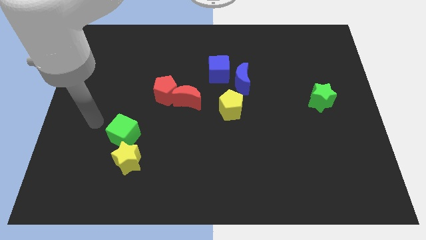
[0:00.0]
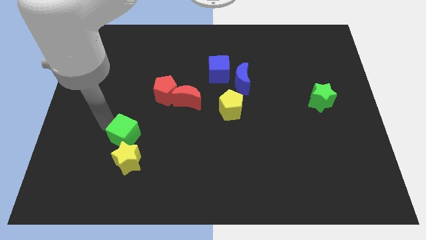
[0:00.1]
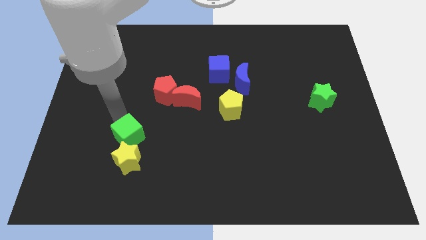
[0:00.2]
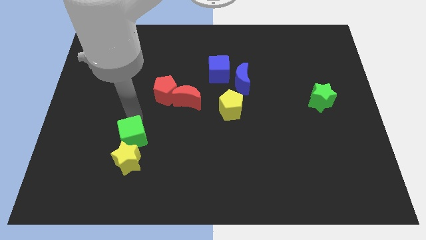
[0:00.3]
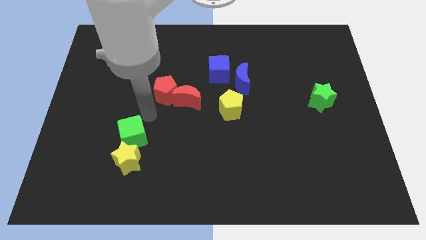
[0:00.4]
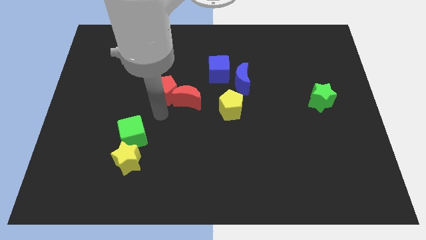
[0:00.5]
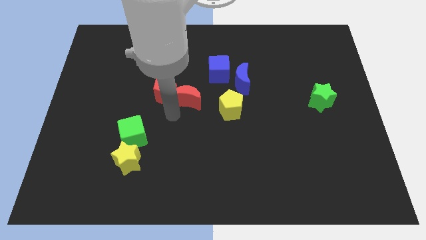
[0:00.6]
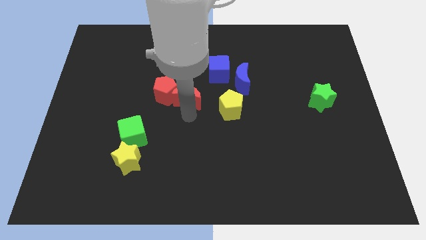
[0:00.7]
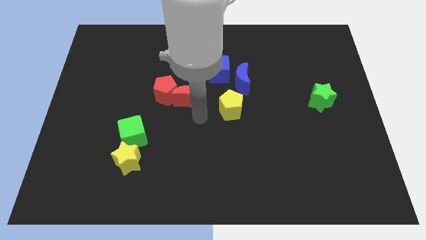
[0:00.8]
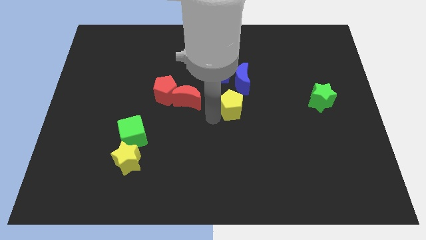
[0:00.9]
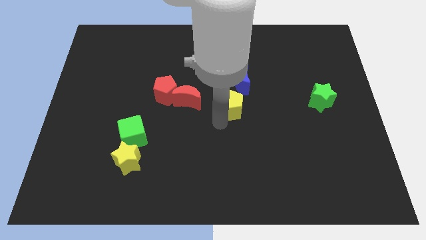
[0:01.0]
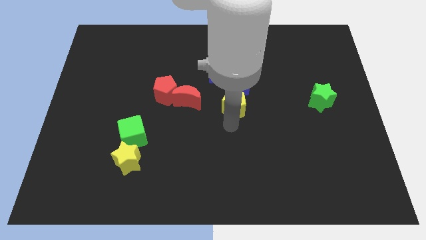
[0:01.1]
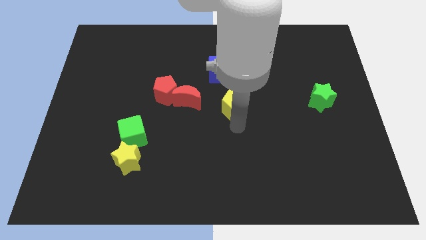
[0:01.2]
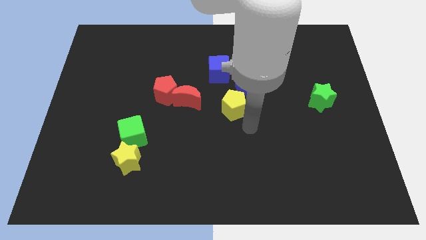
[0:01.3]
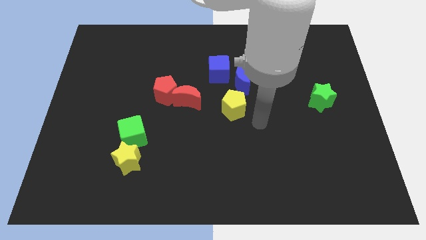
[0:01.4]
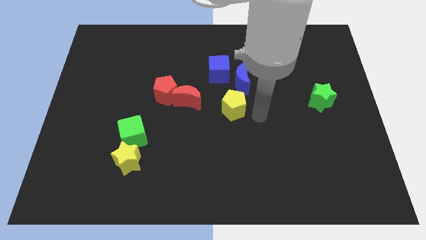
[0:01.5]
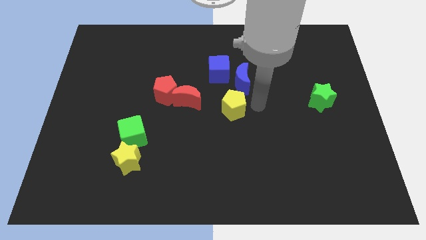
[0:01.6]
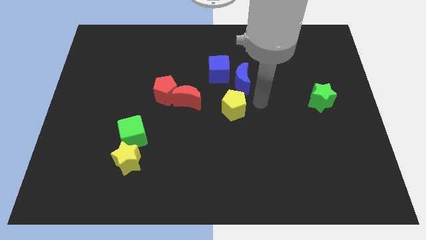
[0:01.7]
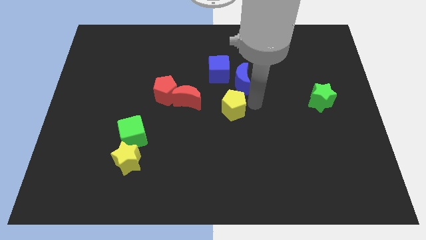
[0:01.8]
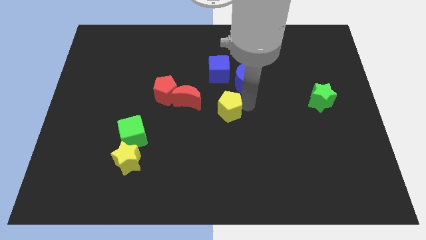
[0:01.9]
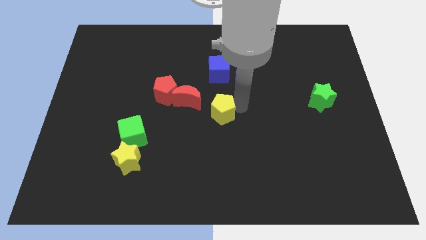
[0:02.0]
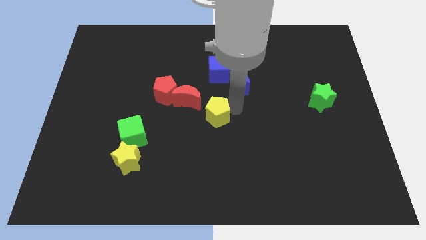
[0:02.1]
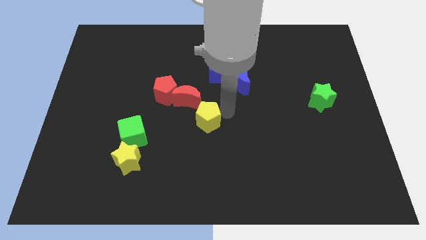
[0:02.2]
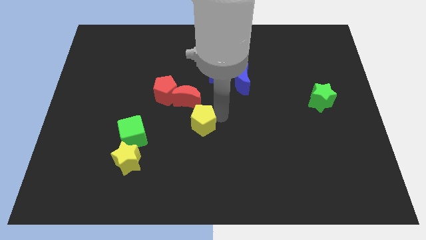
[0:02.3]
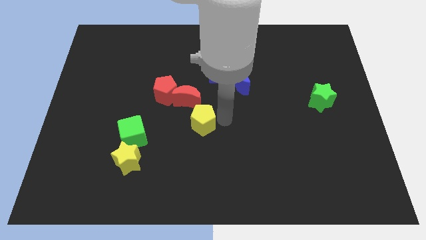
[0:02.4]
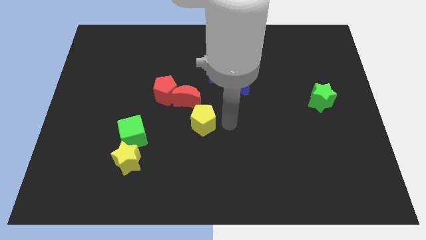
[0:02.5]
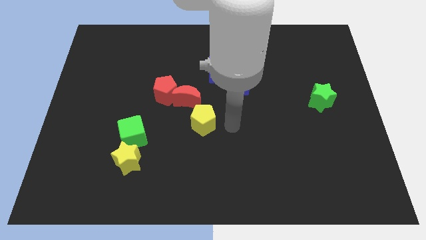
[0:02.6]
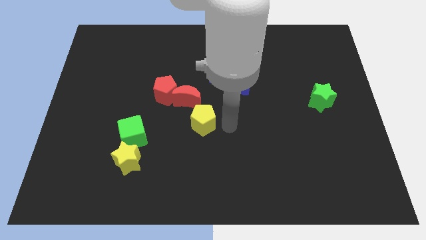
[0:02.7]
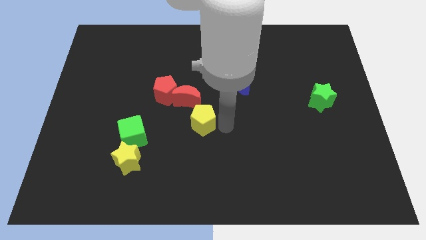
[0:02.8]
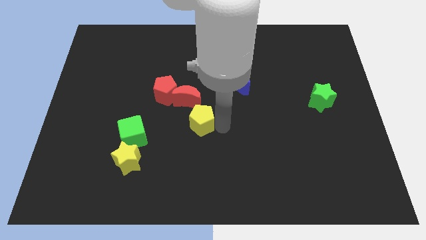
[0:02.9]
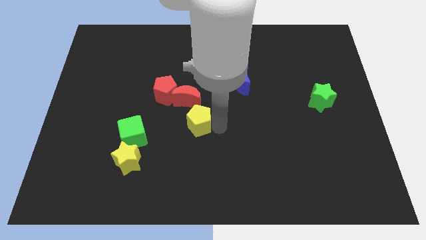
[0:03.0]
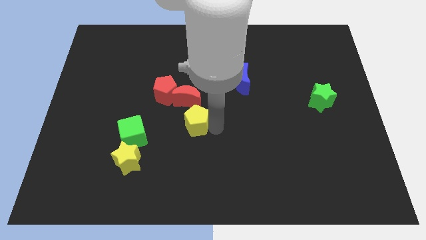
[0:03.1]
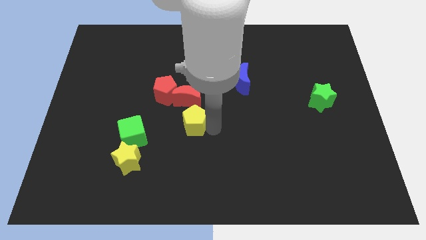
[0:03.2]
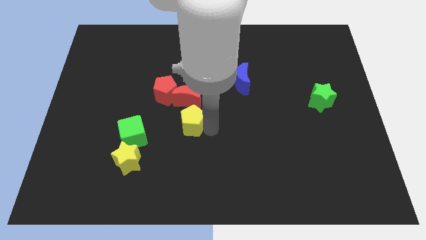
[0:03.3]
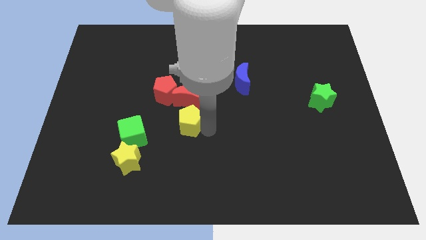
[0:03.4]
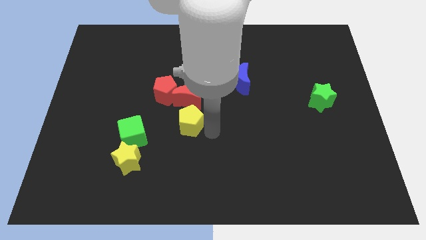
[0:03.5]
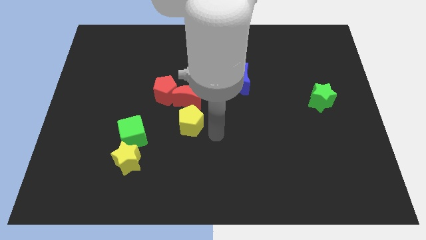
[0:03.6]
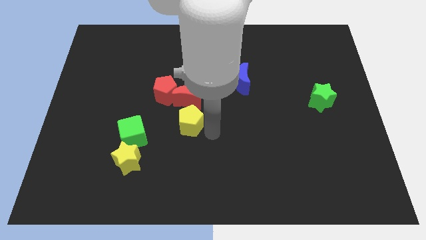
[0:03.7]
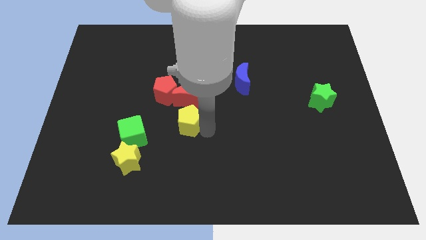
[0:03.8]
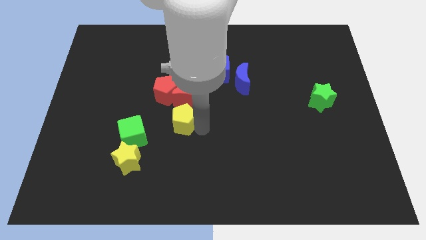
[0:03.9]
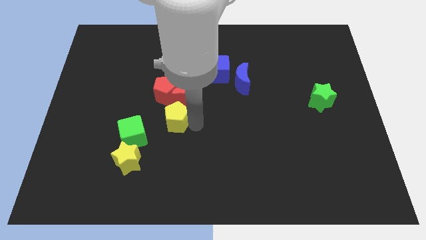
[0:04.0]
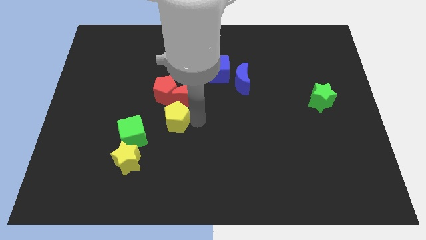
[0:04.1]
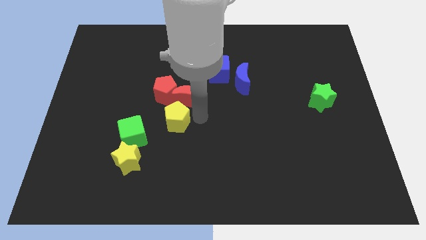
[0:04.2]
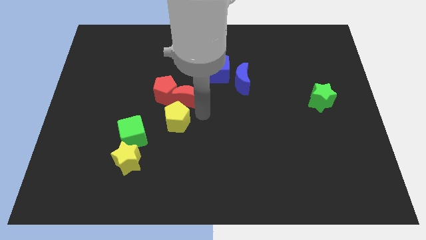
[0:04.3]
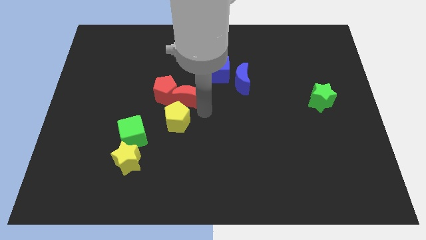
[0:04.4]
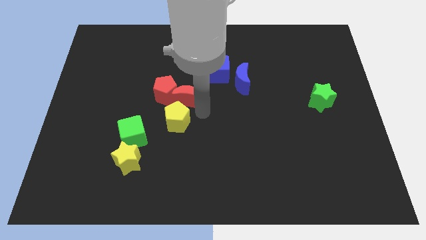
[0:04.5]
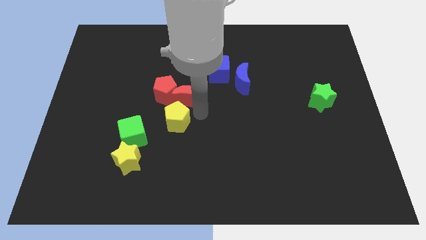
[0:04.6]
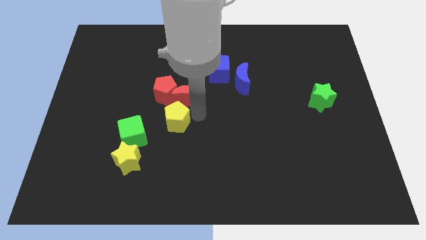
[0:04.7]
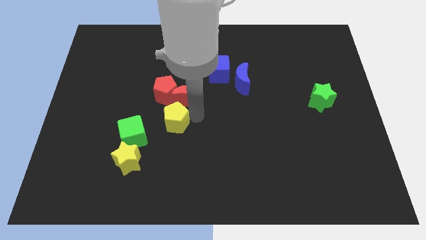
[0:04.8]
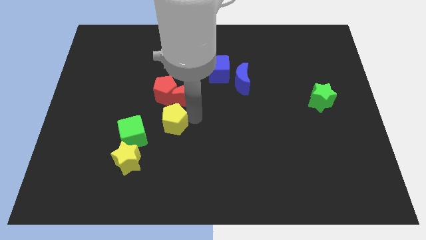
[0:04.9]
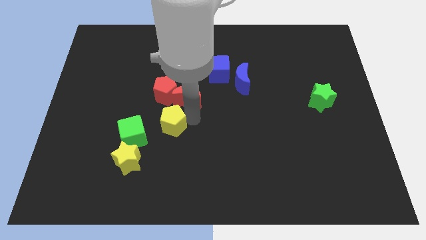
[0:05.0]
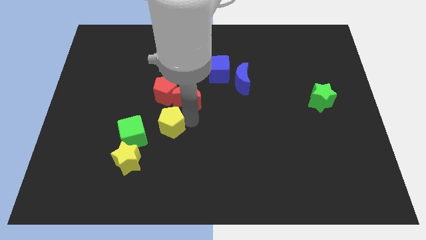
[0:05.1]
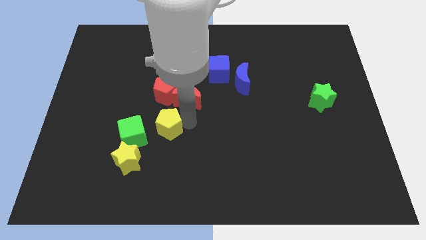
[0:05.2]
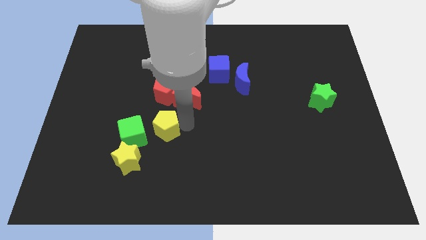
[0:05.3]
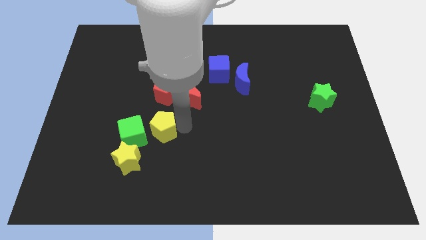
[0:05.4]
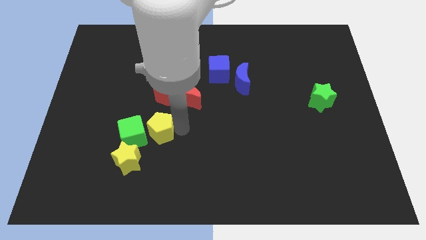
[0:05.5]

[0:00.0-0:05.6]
put the yellow pentagon towards the green cube

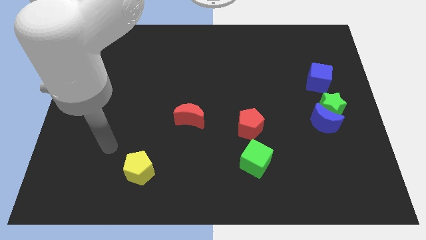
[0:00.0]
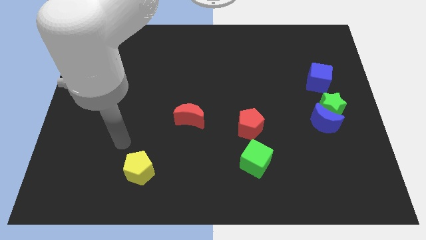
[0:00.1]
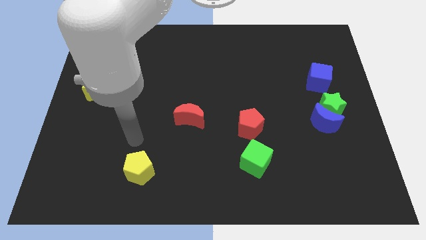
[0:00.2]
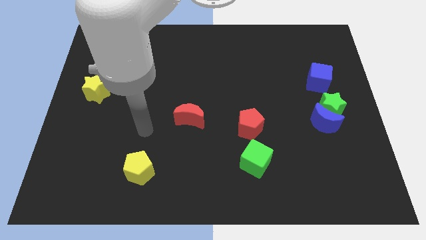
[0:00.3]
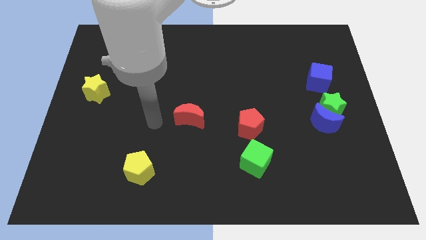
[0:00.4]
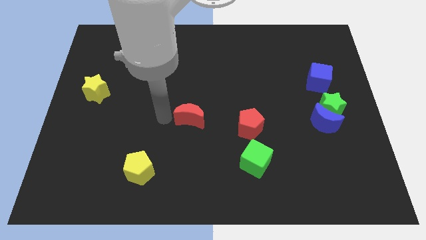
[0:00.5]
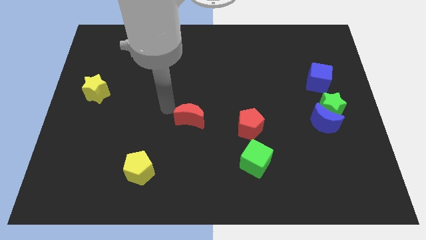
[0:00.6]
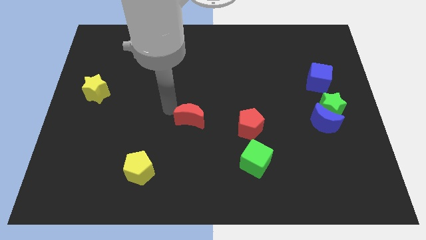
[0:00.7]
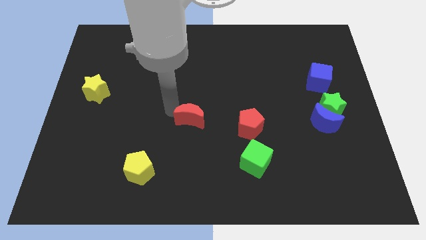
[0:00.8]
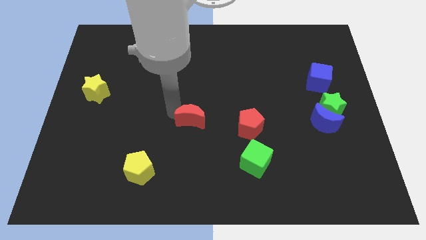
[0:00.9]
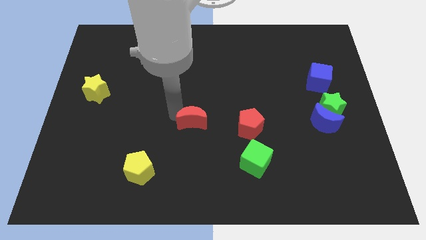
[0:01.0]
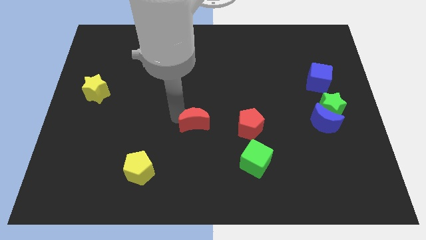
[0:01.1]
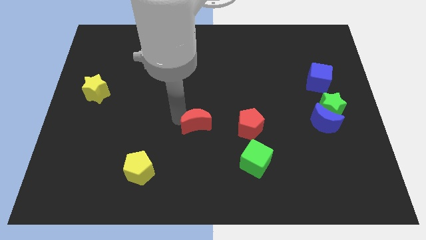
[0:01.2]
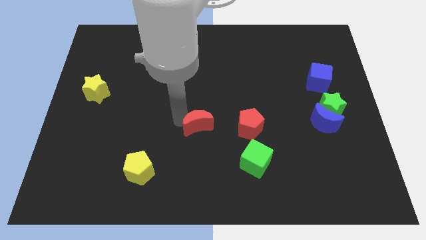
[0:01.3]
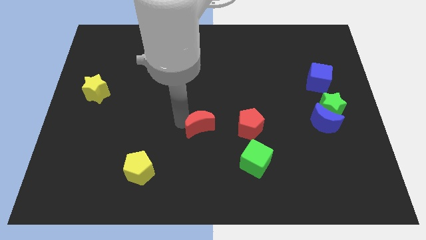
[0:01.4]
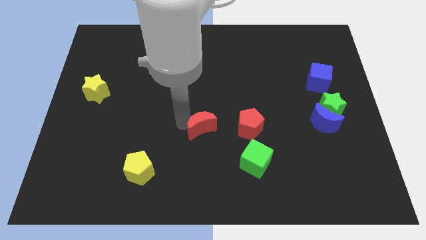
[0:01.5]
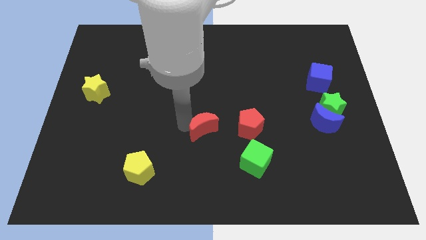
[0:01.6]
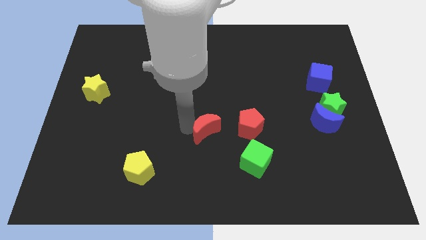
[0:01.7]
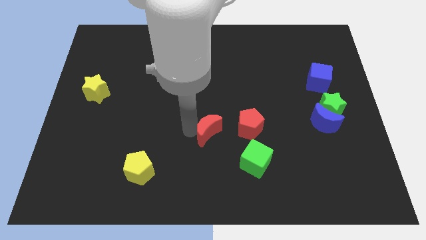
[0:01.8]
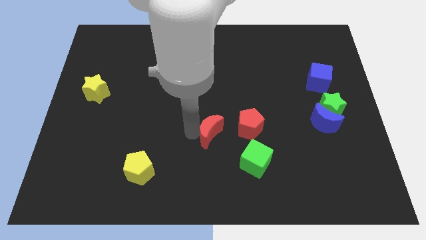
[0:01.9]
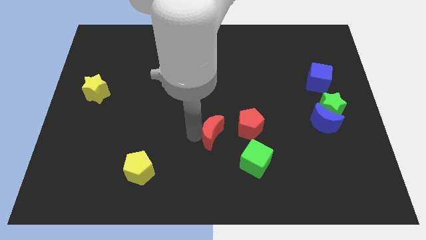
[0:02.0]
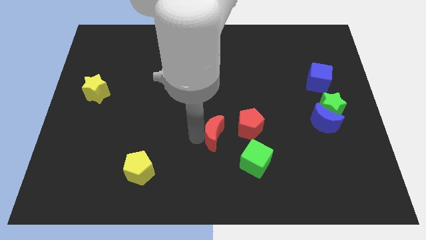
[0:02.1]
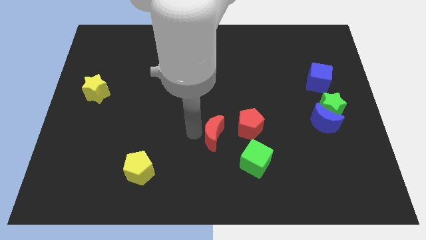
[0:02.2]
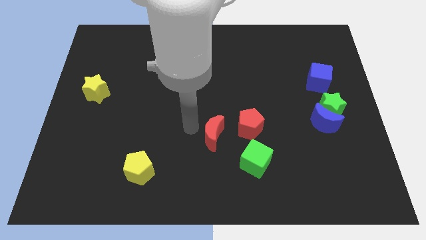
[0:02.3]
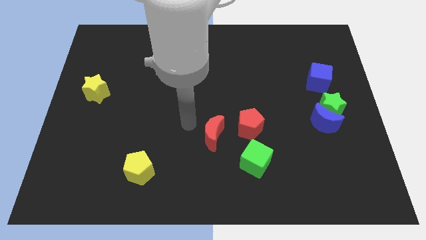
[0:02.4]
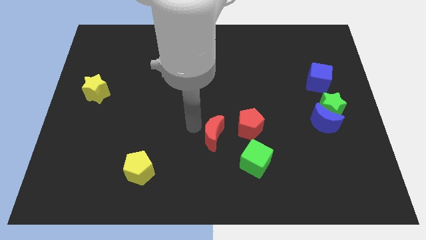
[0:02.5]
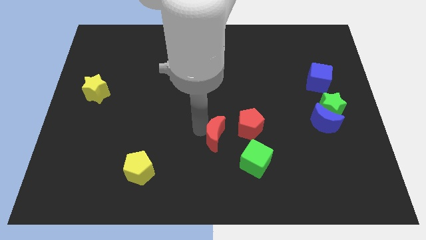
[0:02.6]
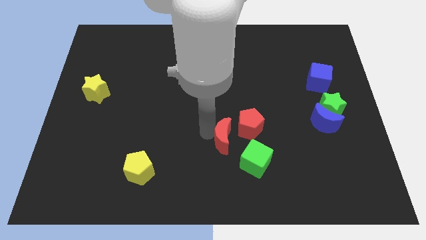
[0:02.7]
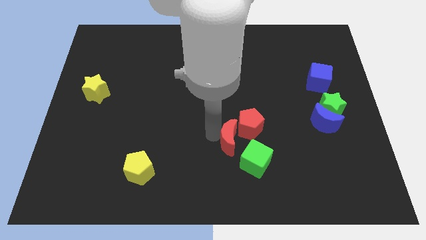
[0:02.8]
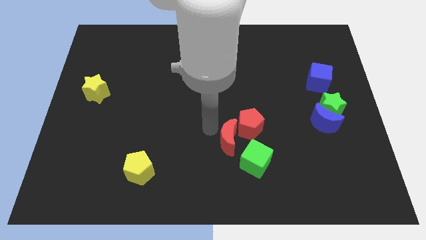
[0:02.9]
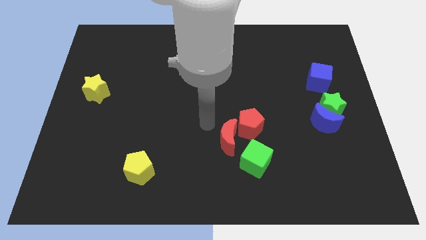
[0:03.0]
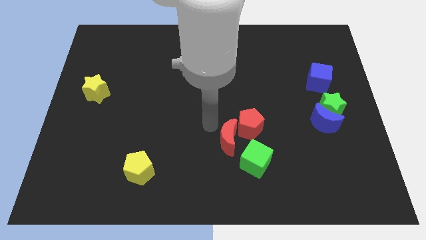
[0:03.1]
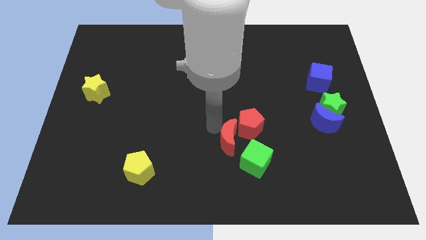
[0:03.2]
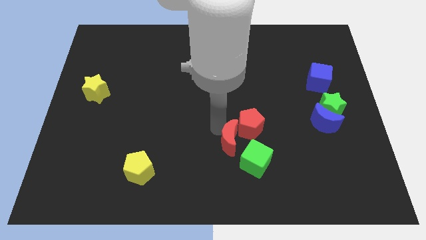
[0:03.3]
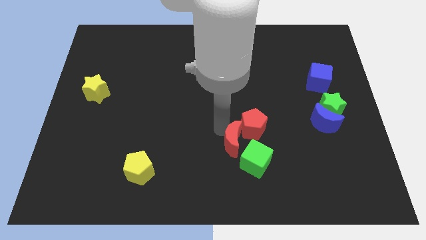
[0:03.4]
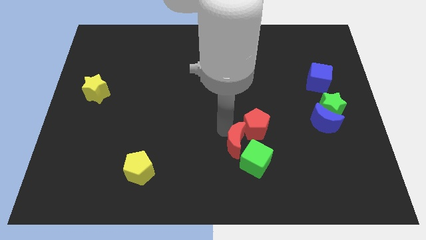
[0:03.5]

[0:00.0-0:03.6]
put the red moon to the green cube
